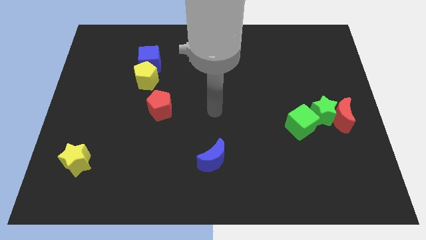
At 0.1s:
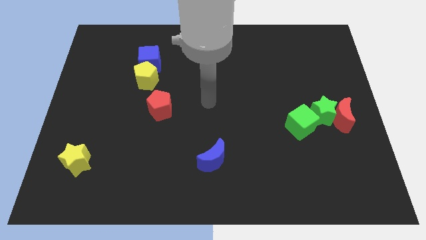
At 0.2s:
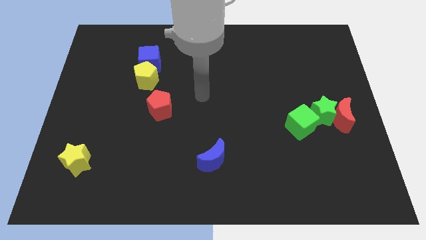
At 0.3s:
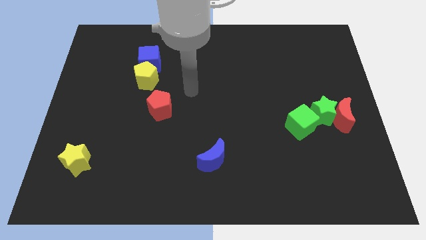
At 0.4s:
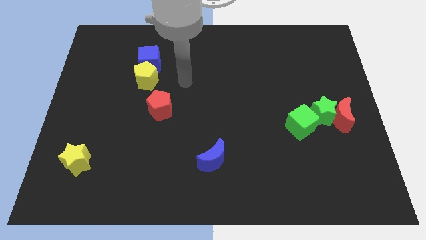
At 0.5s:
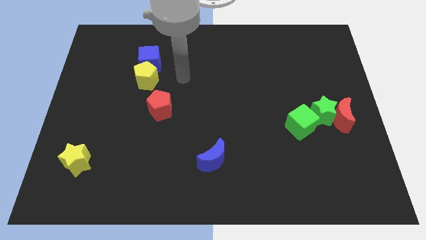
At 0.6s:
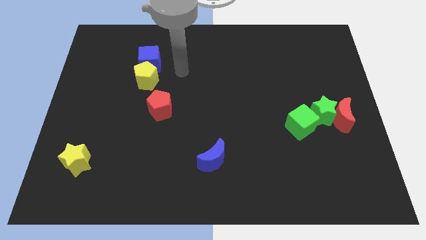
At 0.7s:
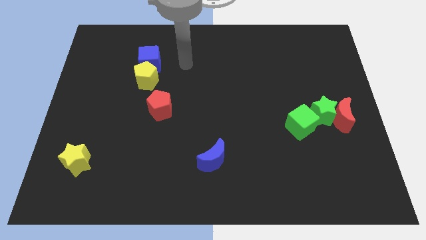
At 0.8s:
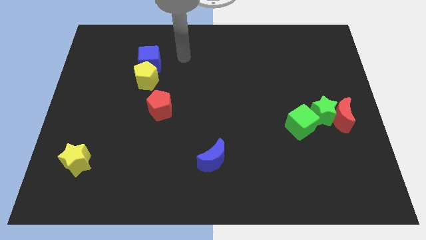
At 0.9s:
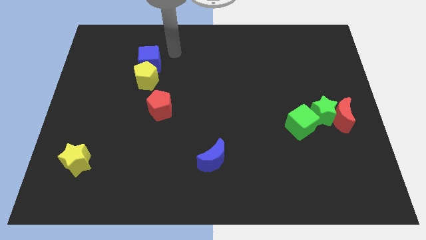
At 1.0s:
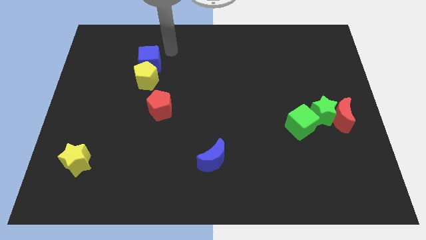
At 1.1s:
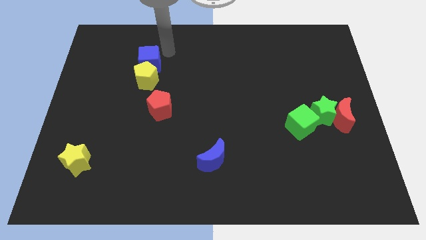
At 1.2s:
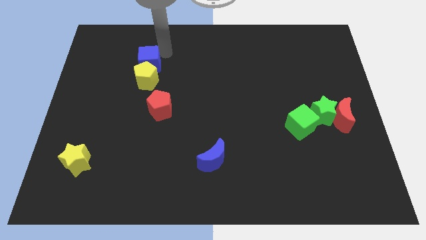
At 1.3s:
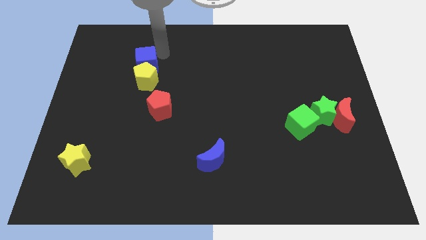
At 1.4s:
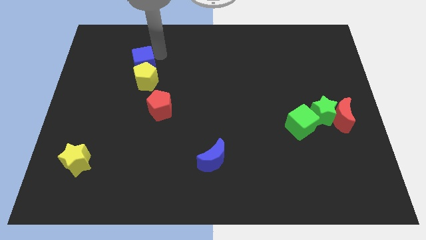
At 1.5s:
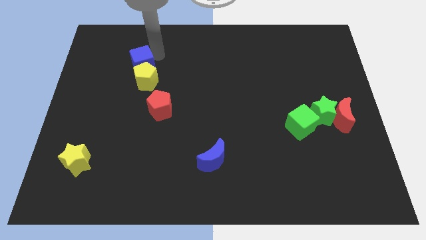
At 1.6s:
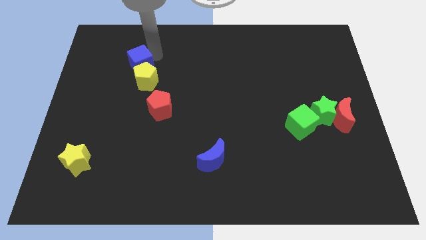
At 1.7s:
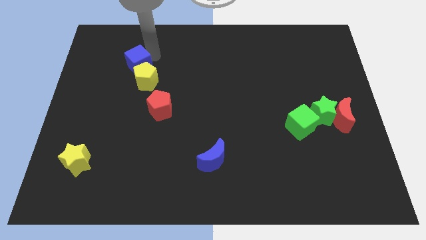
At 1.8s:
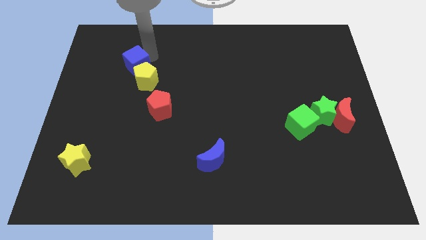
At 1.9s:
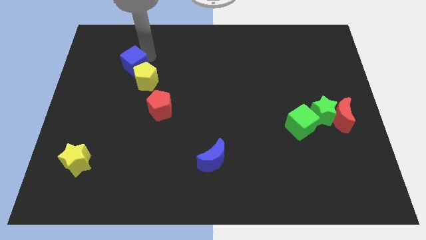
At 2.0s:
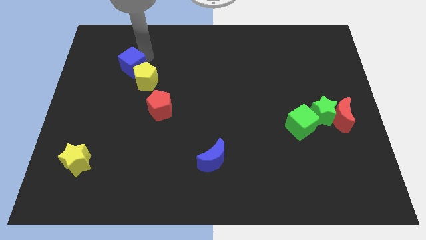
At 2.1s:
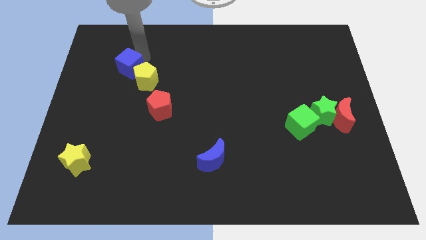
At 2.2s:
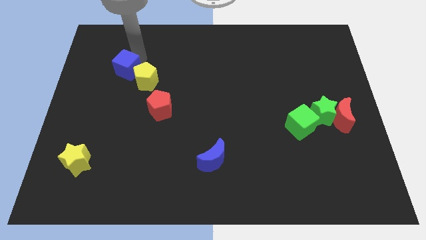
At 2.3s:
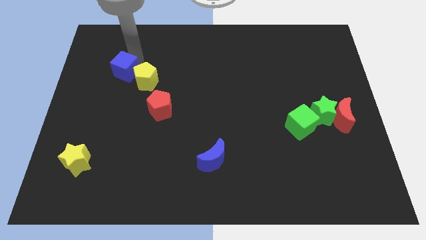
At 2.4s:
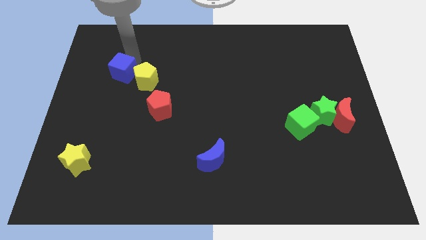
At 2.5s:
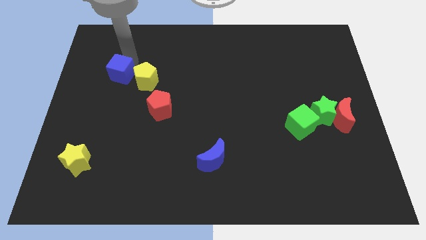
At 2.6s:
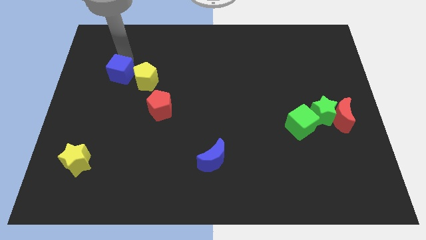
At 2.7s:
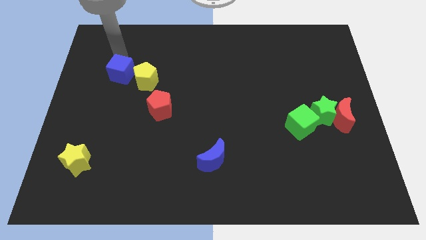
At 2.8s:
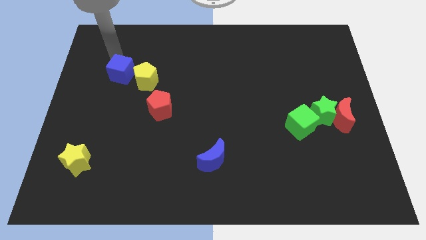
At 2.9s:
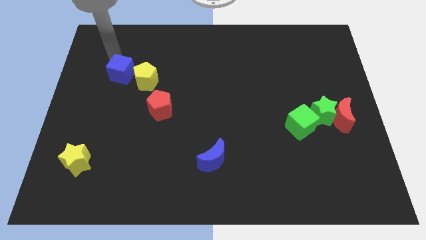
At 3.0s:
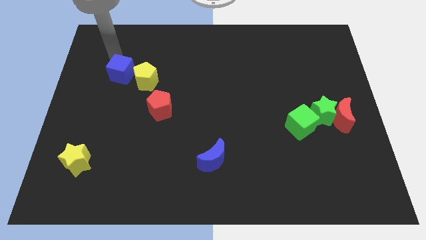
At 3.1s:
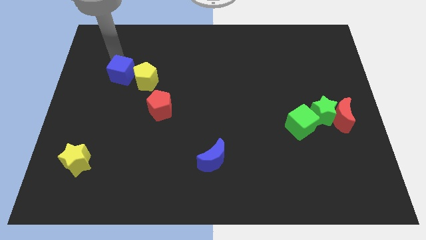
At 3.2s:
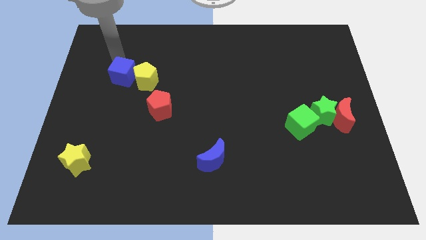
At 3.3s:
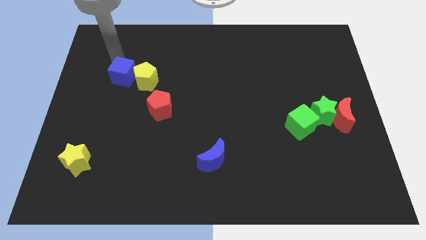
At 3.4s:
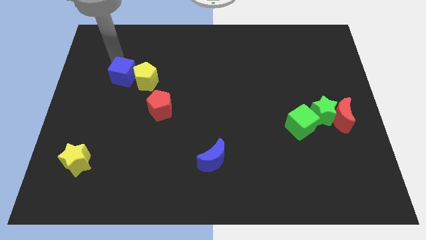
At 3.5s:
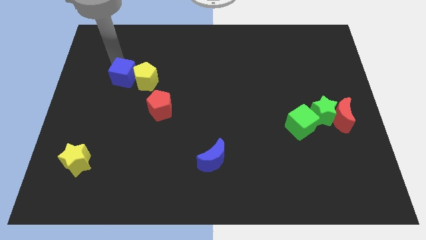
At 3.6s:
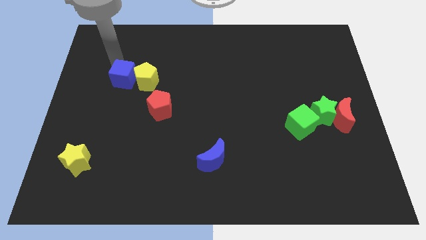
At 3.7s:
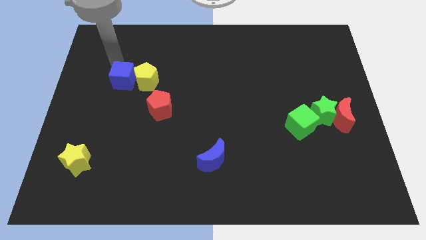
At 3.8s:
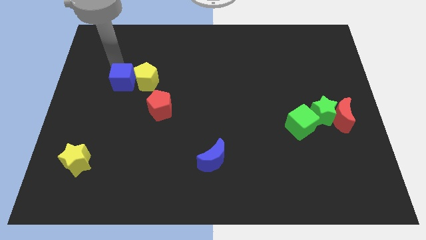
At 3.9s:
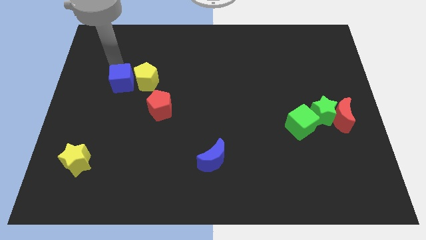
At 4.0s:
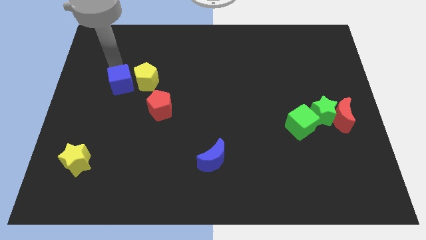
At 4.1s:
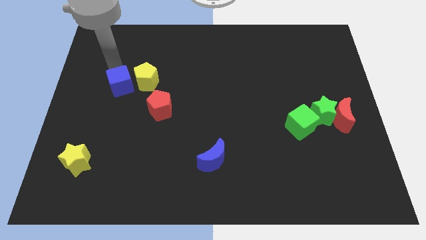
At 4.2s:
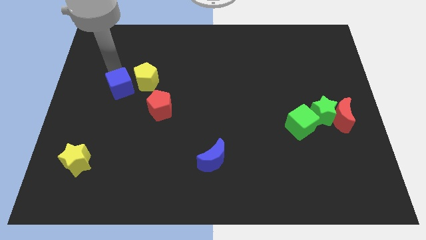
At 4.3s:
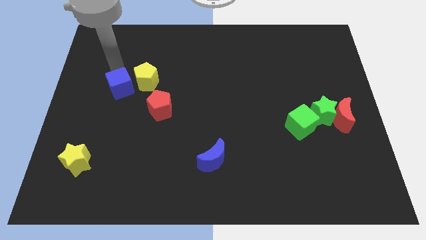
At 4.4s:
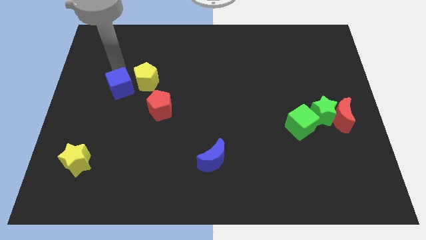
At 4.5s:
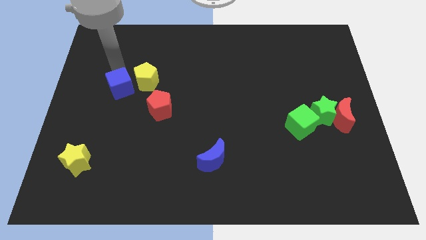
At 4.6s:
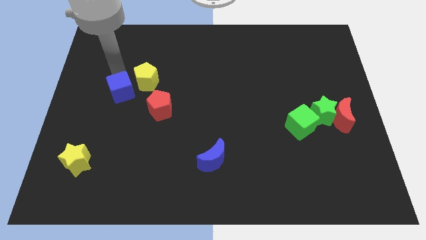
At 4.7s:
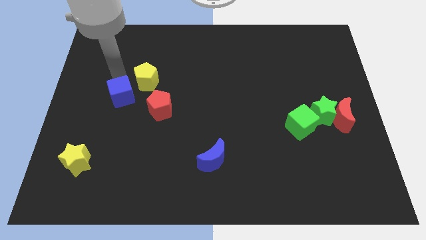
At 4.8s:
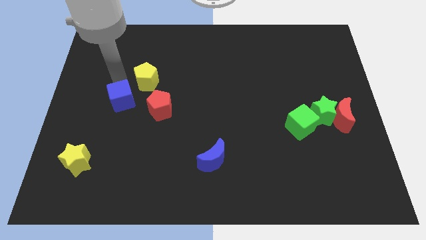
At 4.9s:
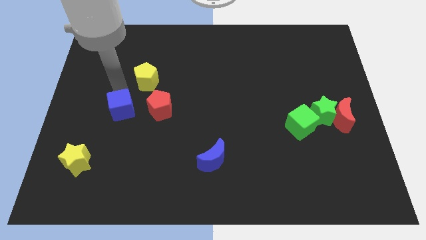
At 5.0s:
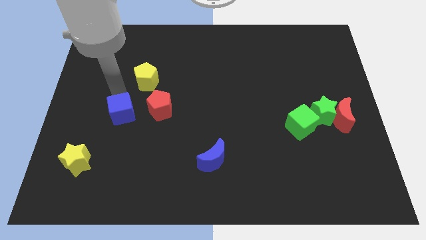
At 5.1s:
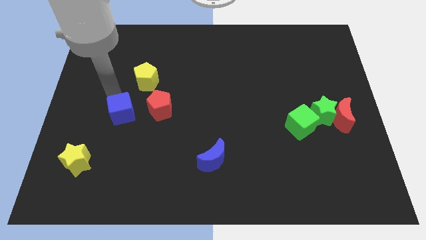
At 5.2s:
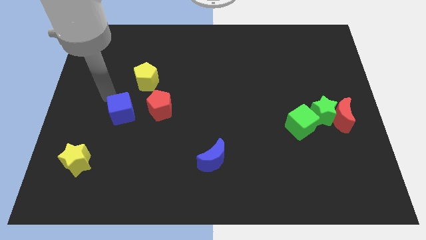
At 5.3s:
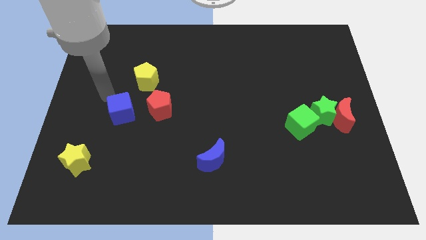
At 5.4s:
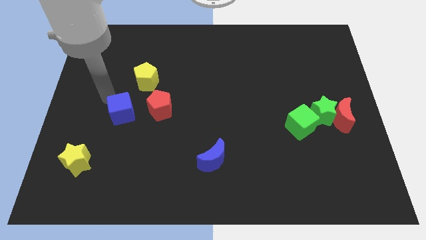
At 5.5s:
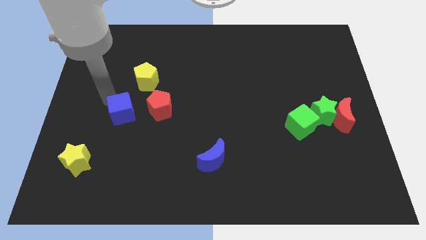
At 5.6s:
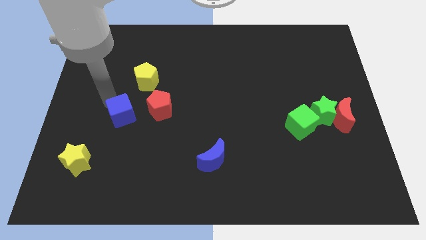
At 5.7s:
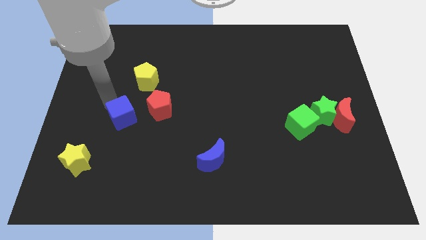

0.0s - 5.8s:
move the blue cube to the bottom left of the red pentagon
